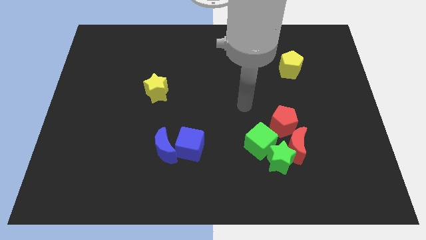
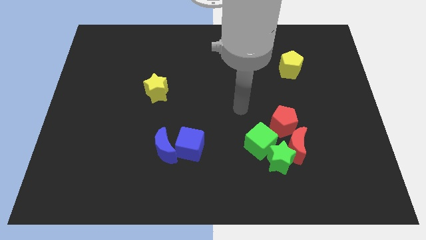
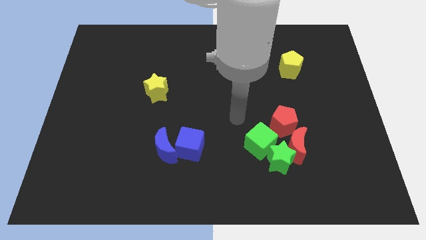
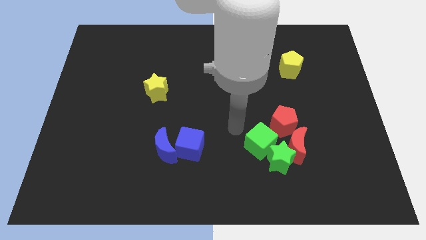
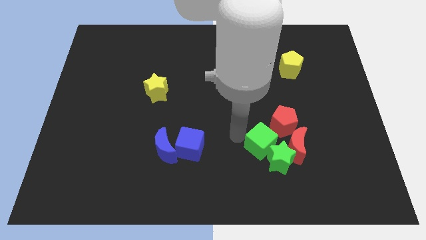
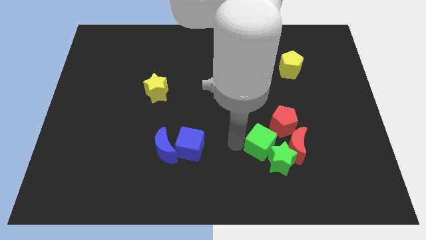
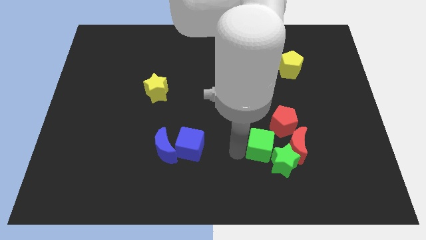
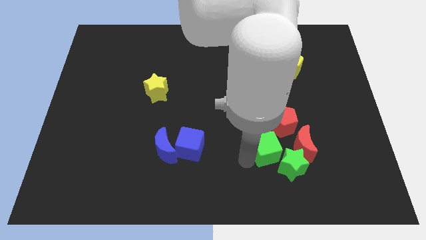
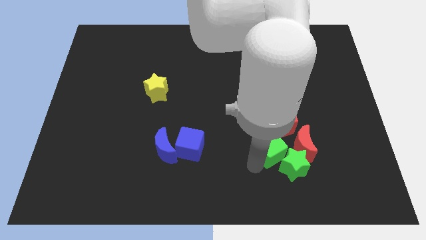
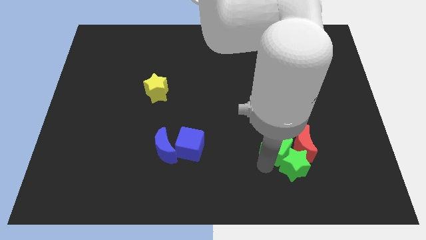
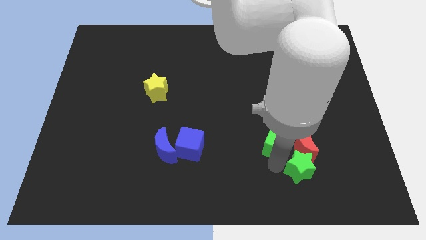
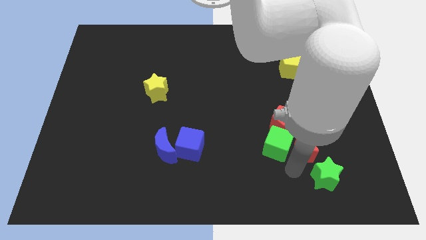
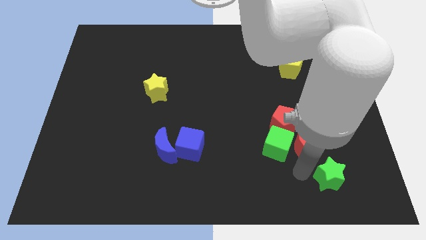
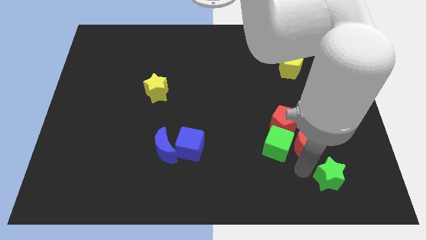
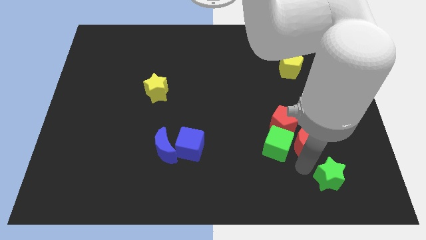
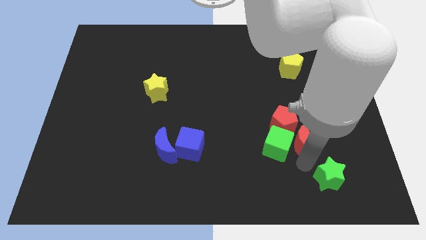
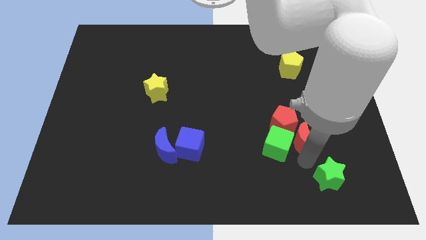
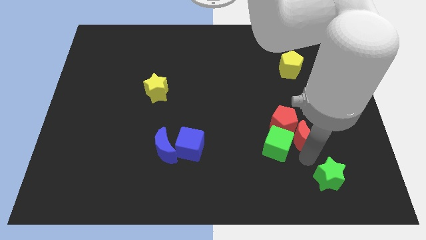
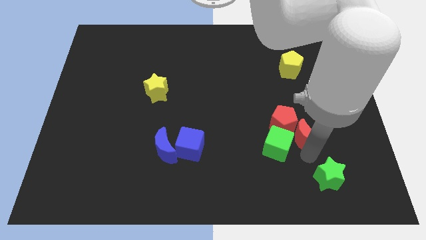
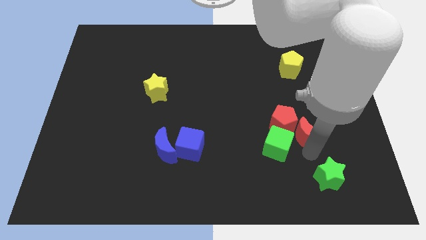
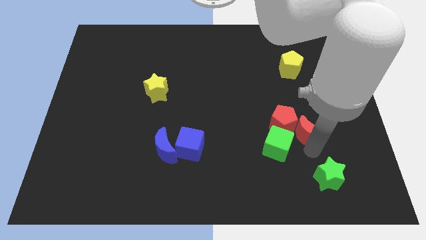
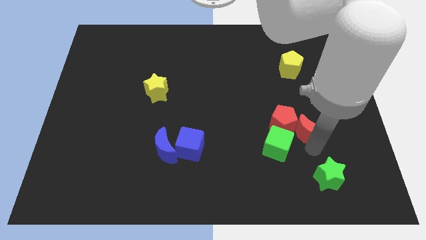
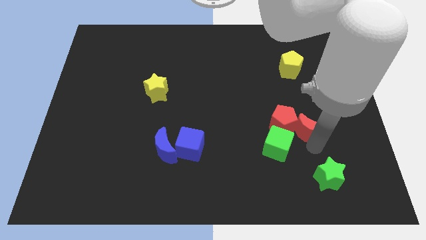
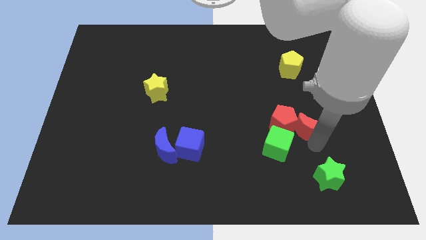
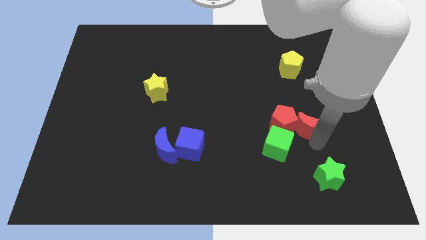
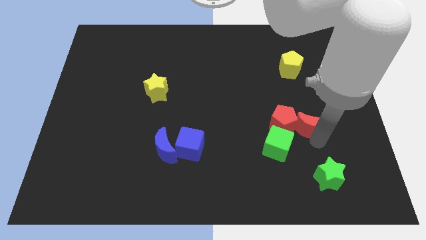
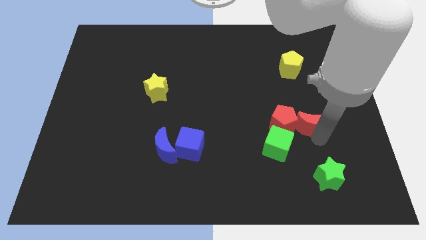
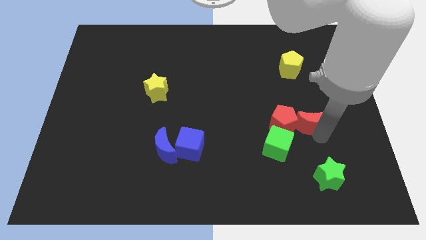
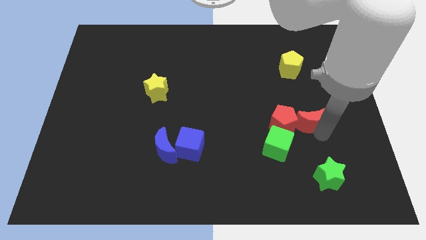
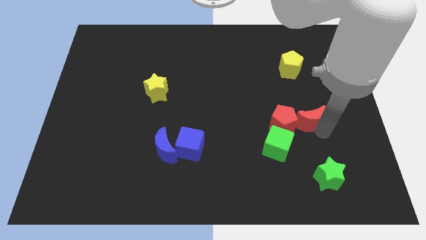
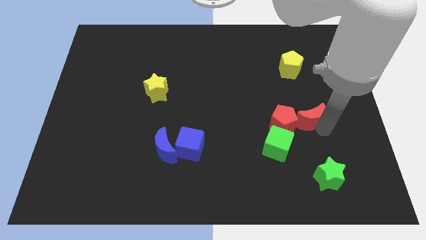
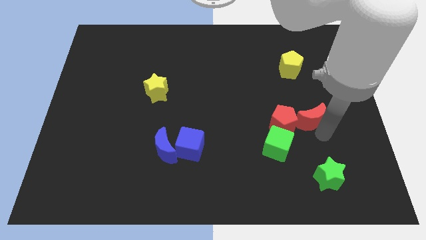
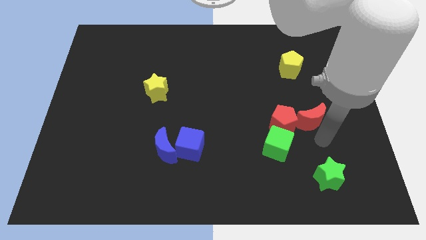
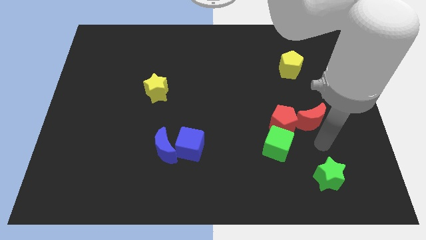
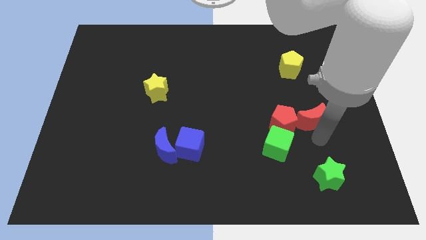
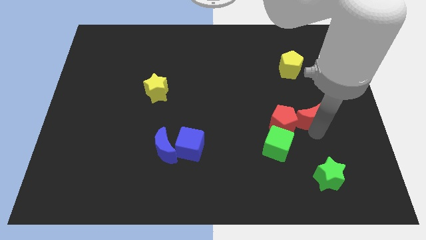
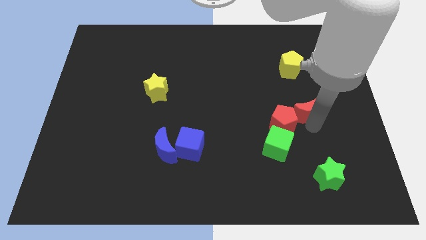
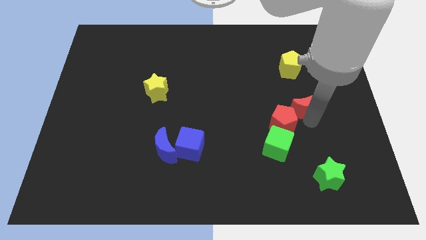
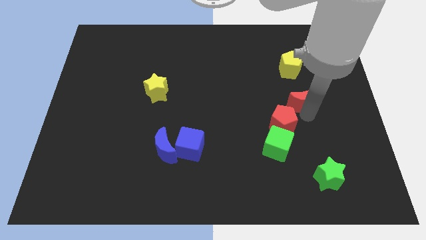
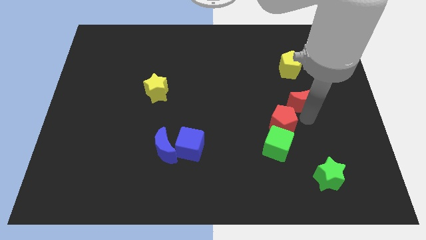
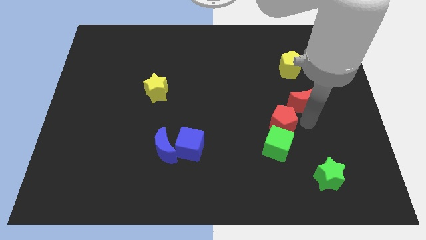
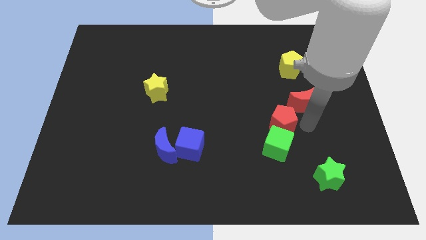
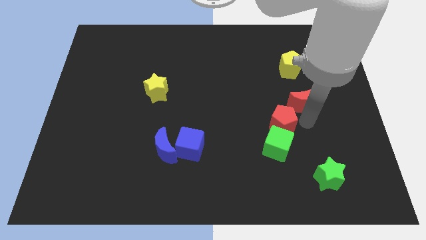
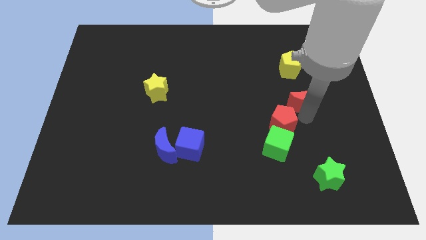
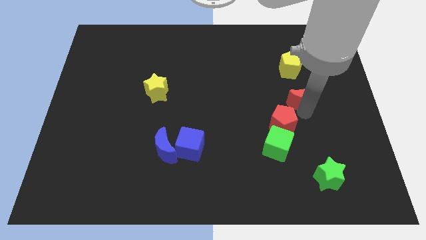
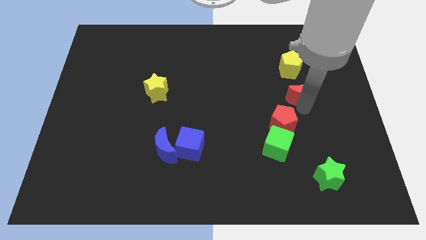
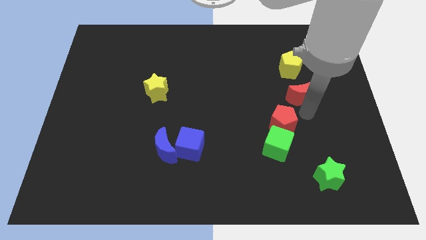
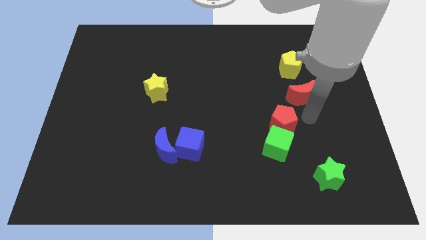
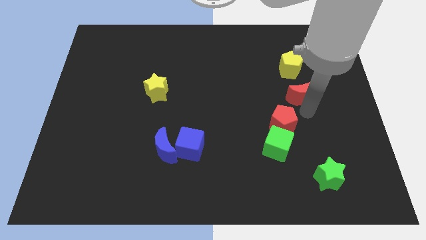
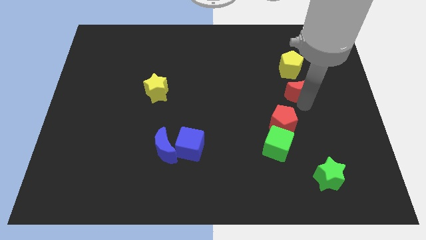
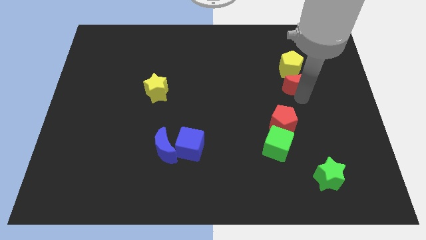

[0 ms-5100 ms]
slide the red moon close to the yellow pentagon

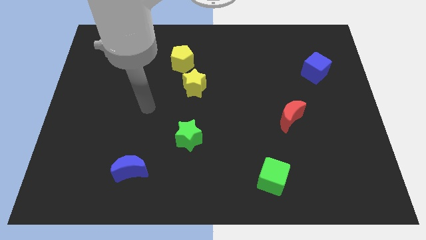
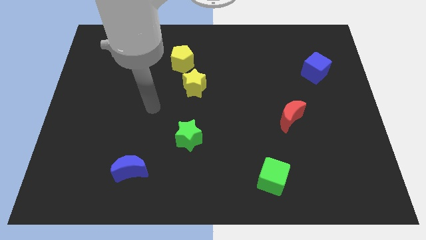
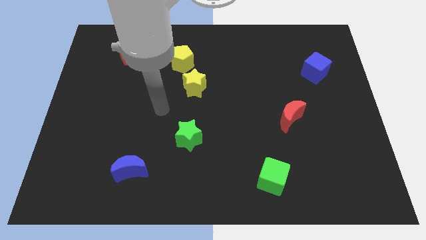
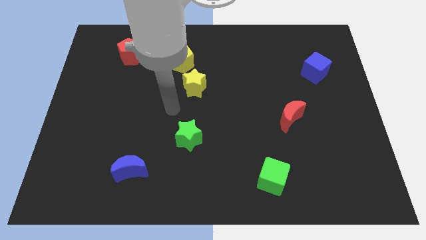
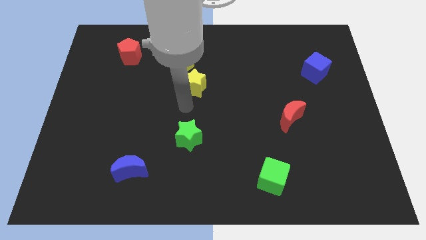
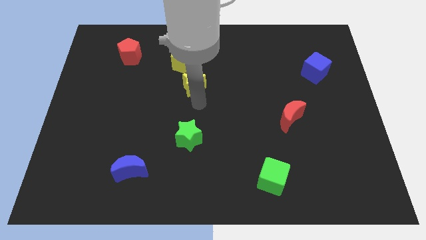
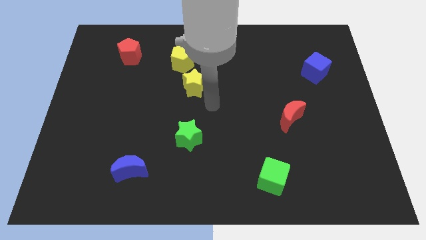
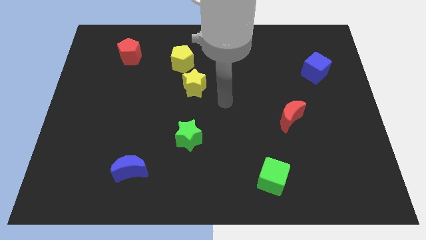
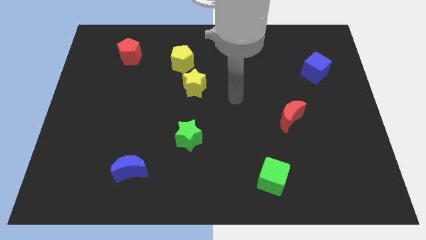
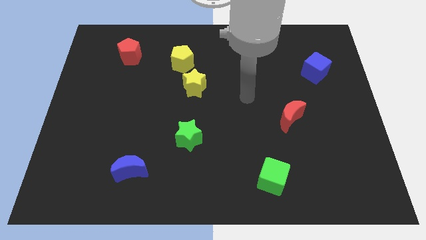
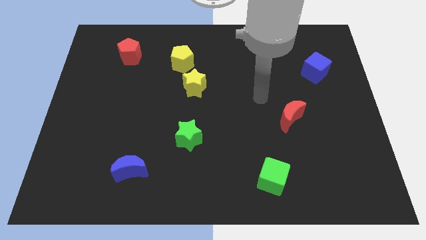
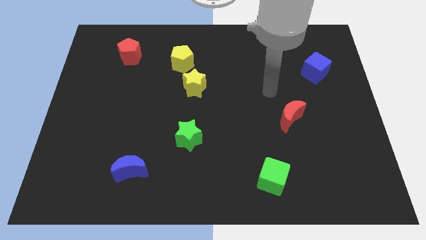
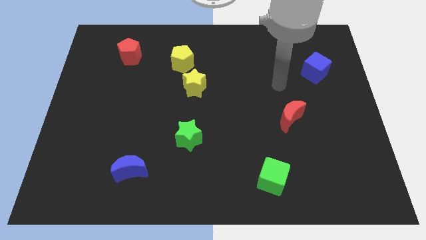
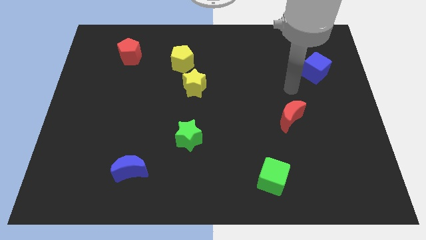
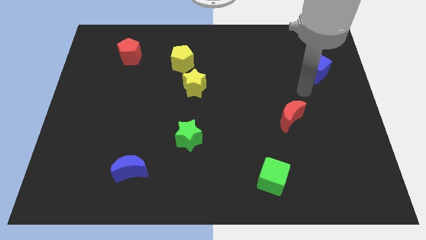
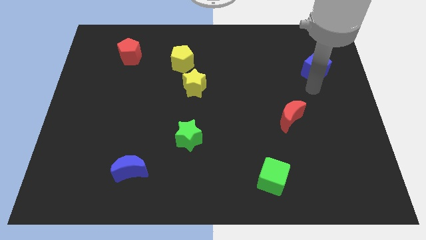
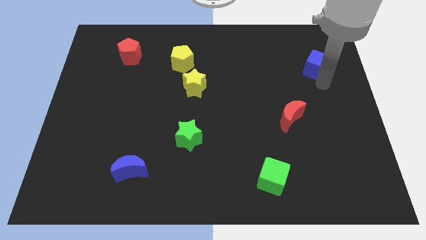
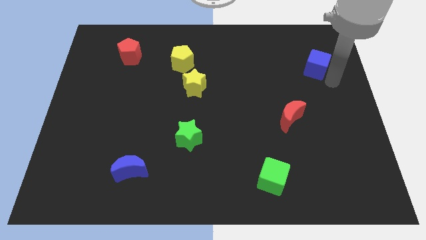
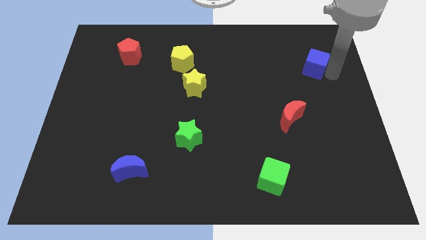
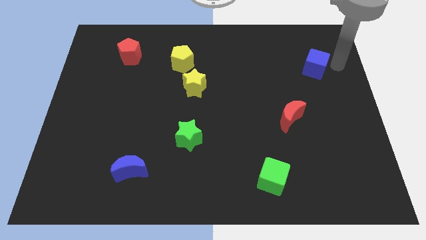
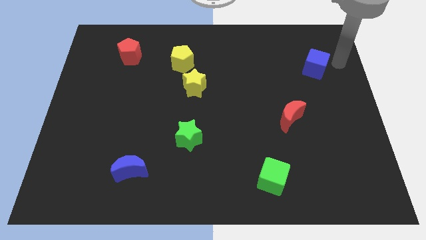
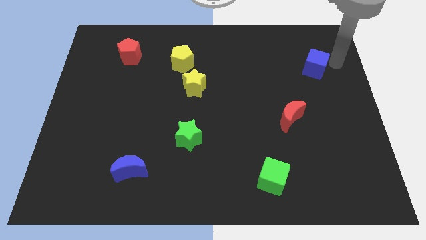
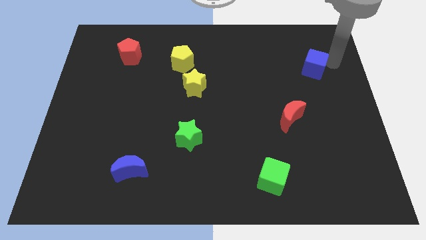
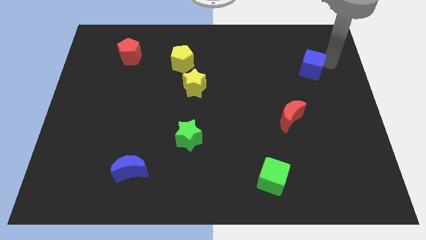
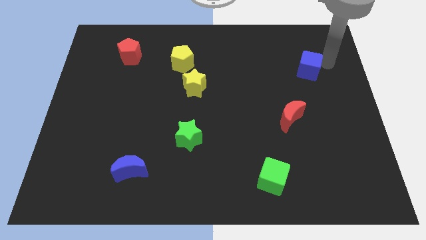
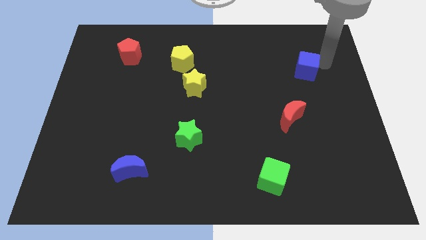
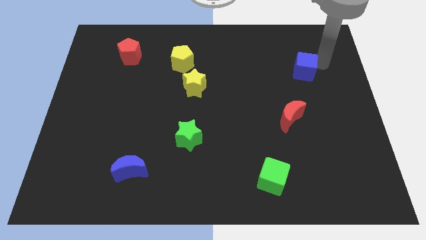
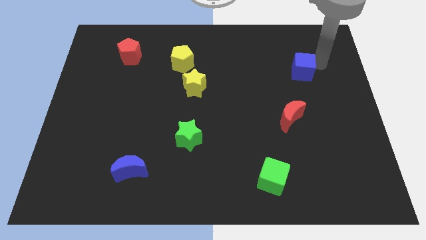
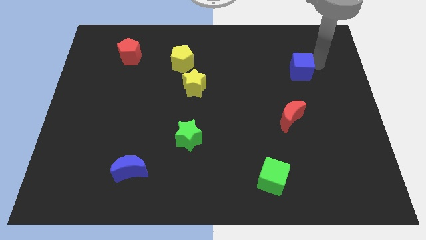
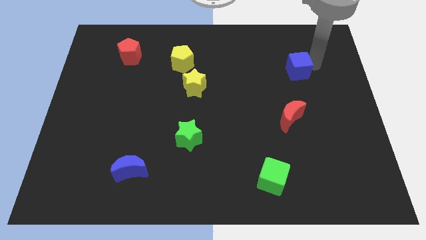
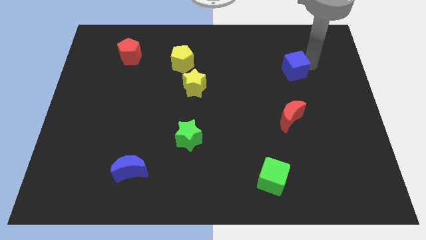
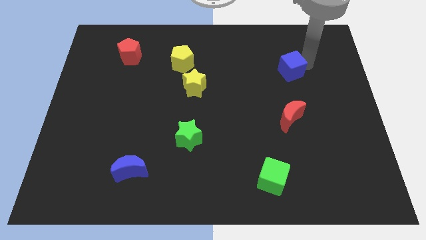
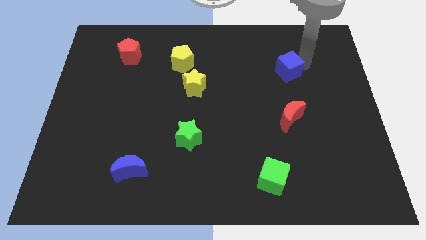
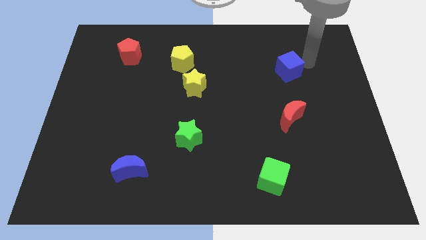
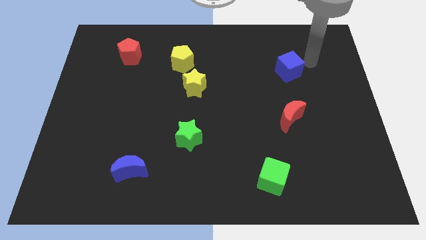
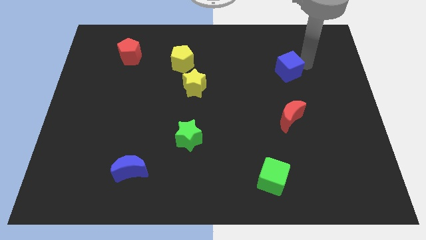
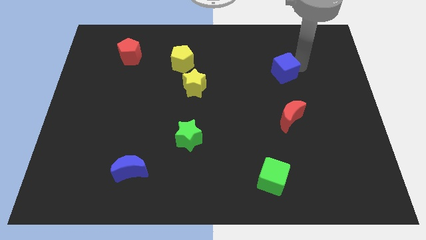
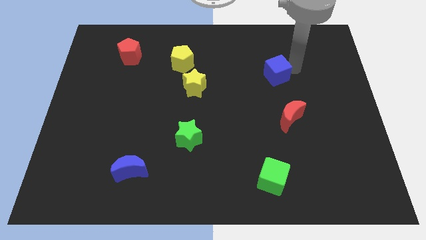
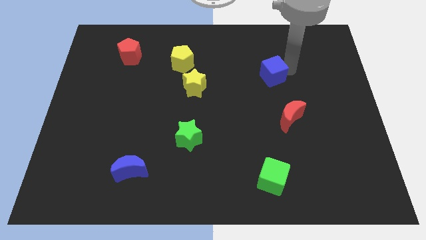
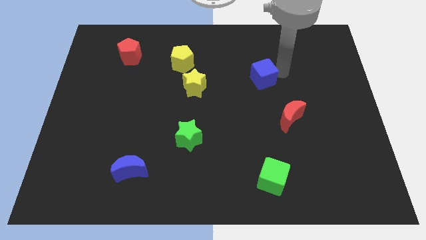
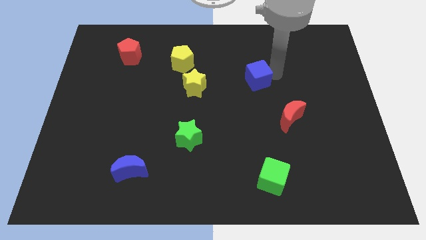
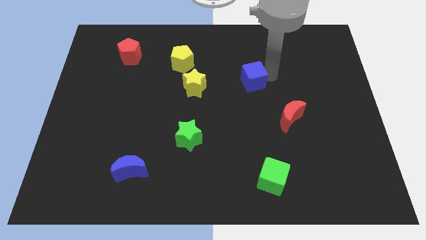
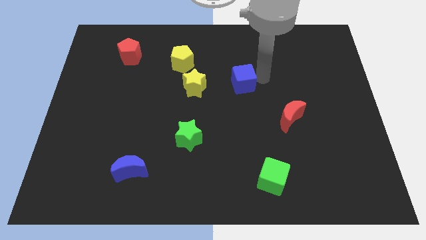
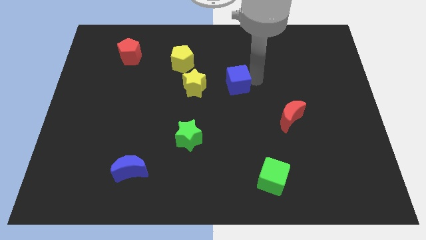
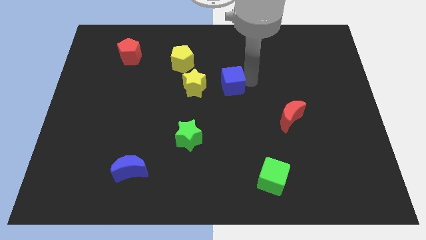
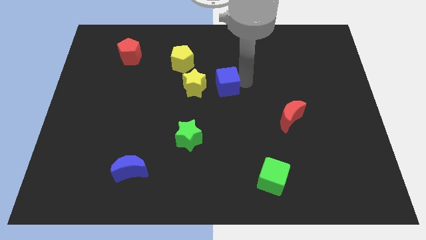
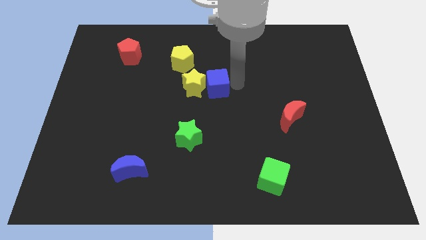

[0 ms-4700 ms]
put the blue cube next to the yellow star
